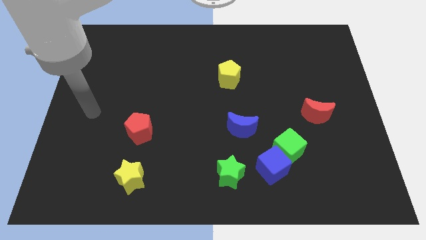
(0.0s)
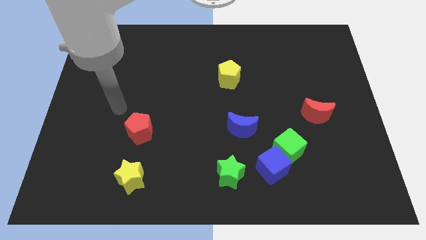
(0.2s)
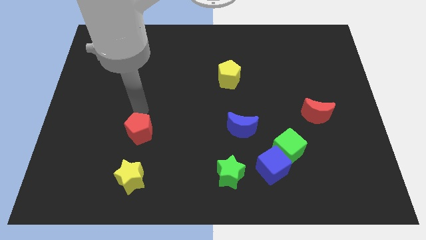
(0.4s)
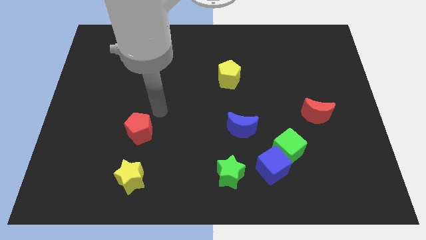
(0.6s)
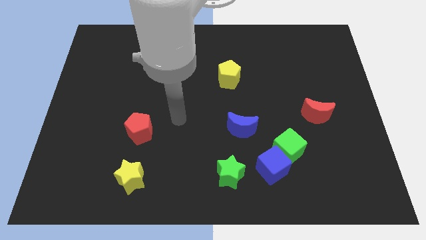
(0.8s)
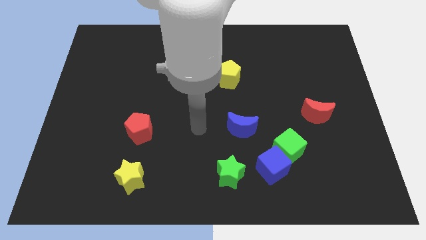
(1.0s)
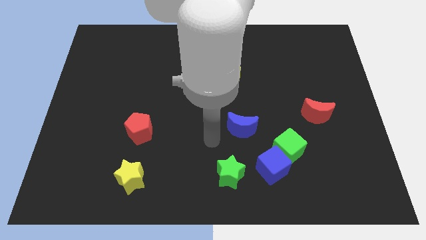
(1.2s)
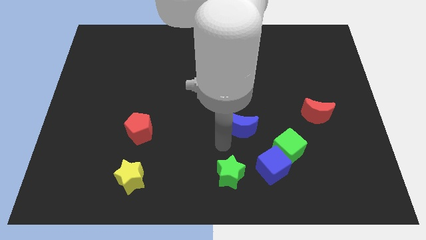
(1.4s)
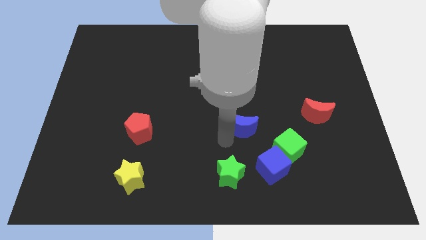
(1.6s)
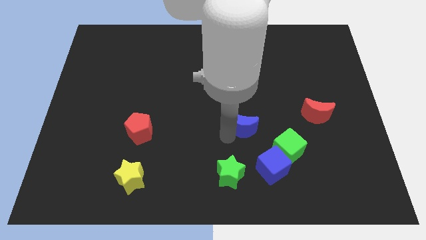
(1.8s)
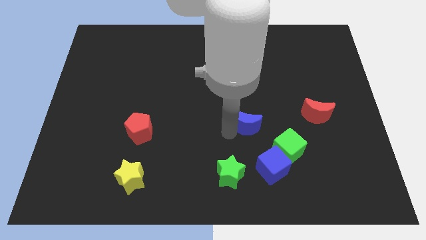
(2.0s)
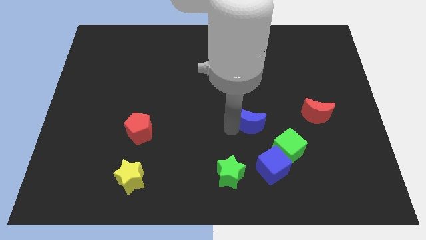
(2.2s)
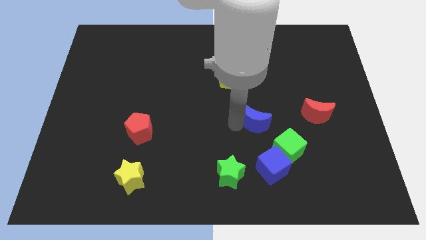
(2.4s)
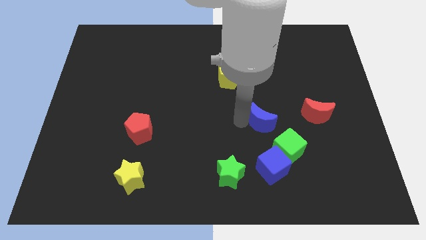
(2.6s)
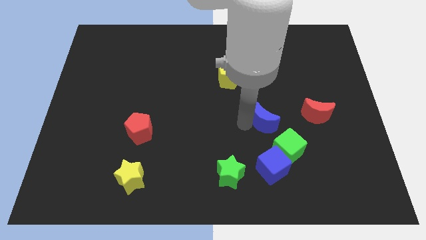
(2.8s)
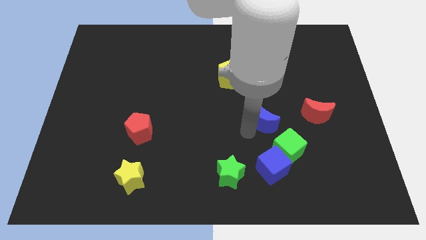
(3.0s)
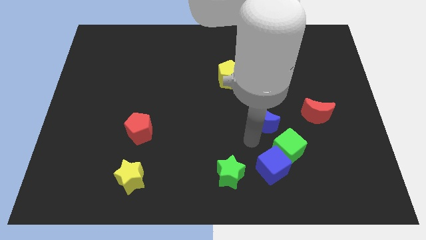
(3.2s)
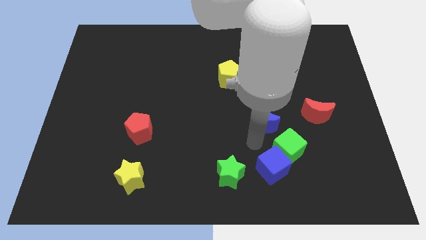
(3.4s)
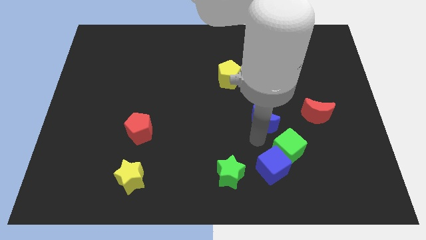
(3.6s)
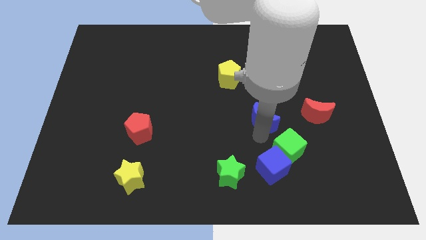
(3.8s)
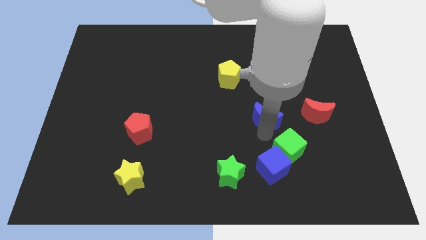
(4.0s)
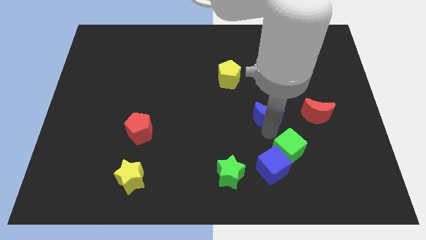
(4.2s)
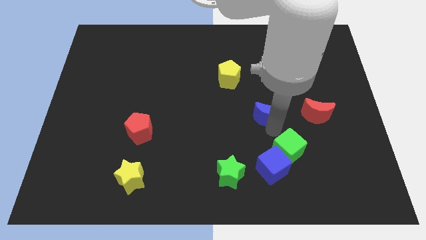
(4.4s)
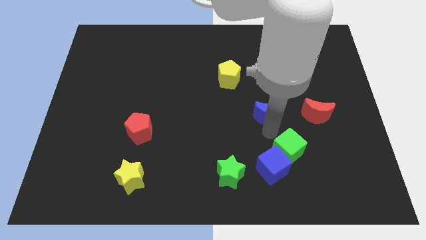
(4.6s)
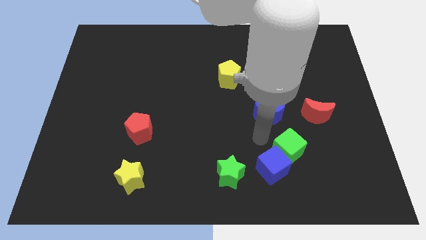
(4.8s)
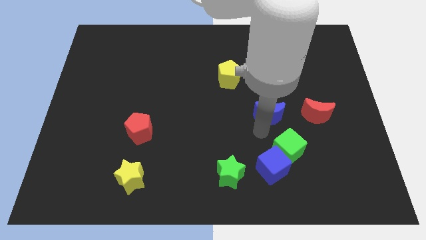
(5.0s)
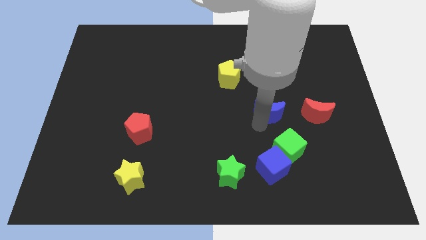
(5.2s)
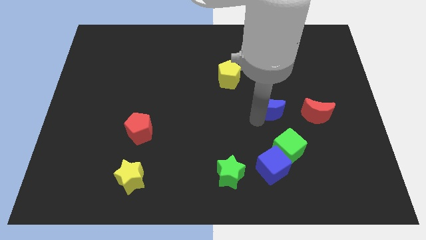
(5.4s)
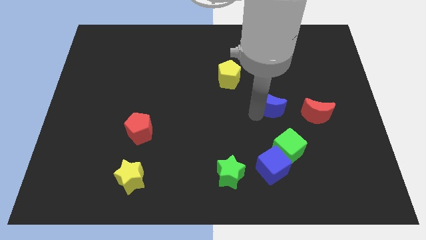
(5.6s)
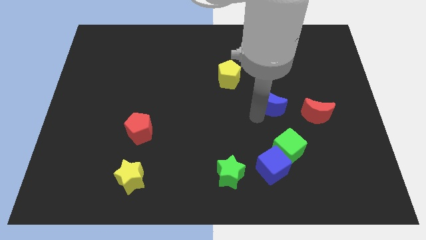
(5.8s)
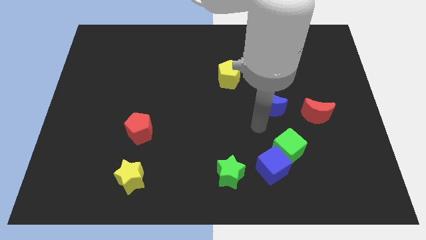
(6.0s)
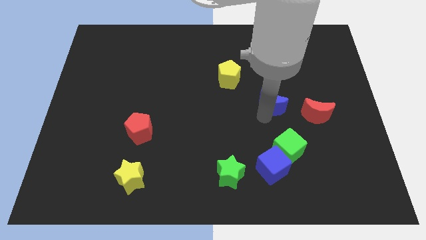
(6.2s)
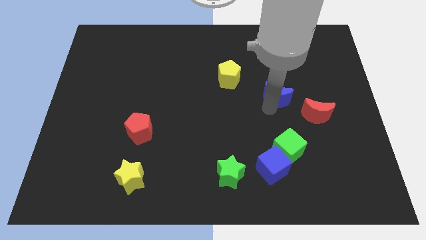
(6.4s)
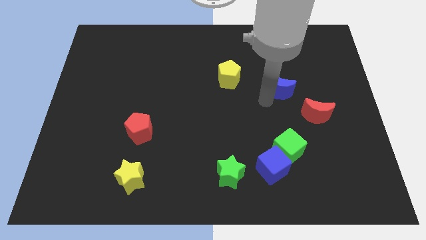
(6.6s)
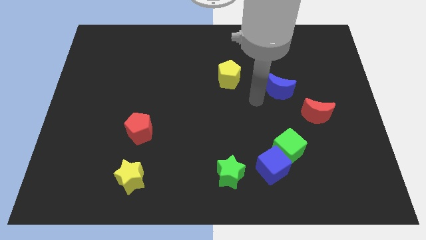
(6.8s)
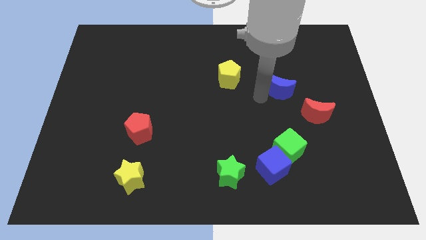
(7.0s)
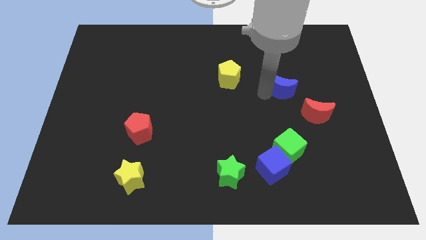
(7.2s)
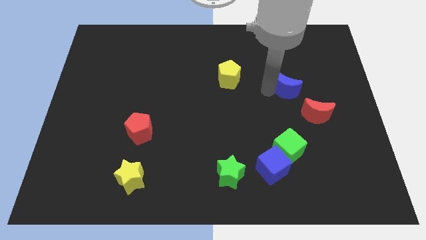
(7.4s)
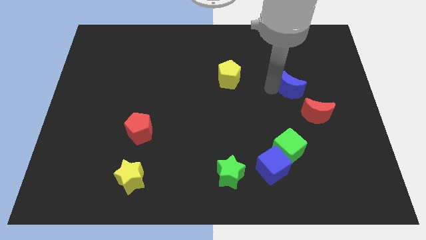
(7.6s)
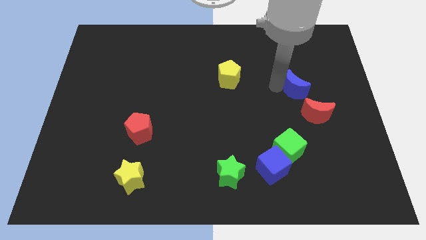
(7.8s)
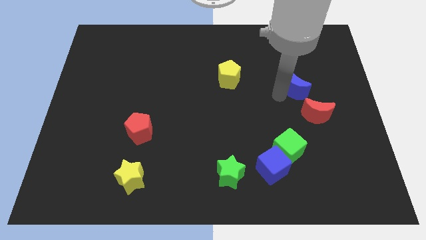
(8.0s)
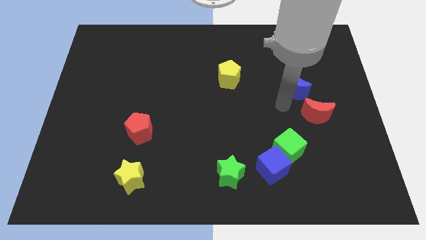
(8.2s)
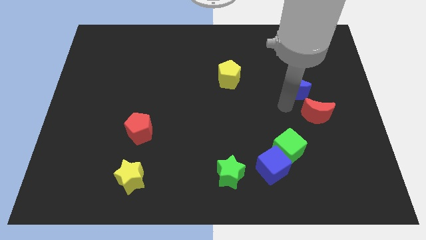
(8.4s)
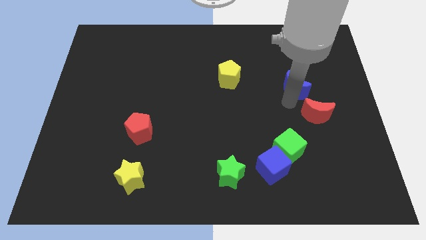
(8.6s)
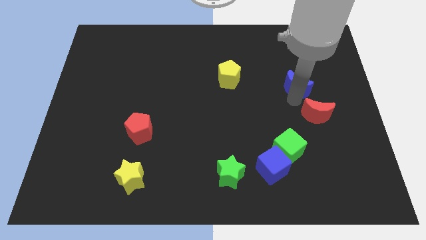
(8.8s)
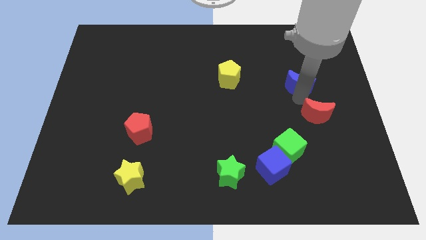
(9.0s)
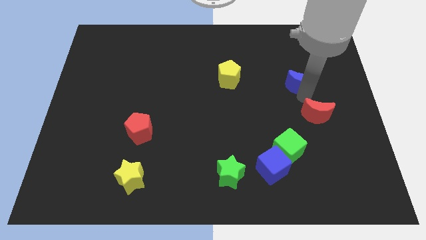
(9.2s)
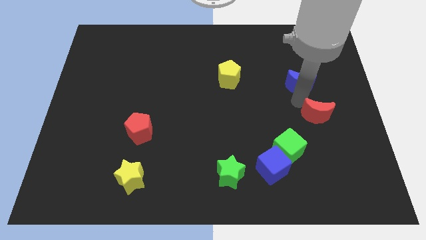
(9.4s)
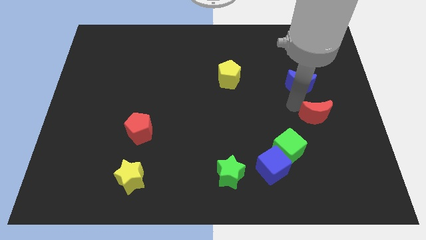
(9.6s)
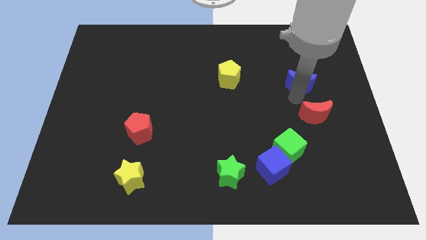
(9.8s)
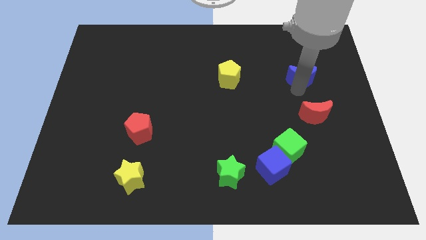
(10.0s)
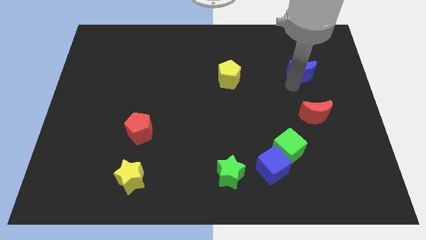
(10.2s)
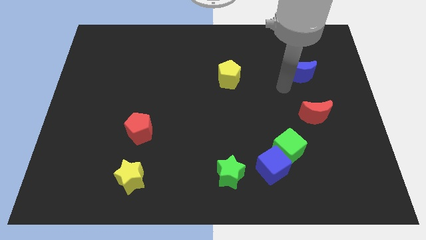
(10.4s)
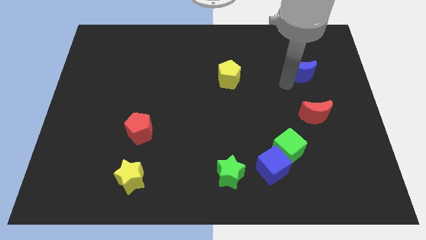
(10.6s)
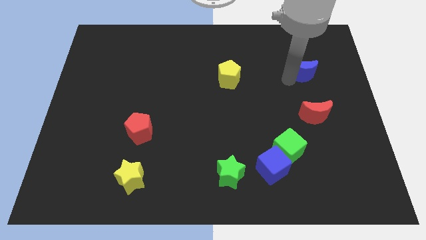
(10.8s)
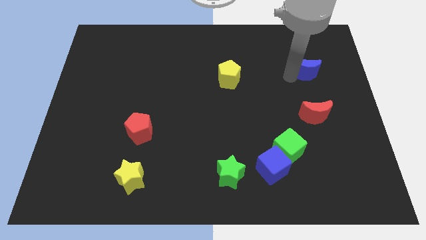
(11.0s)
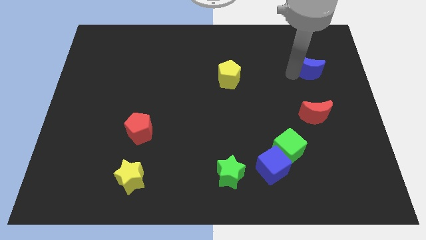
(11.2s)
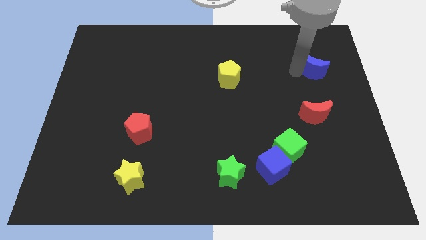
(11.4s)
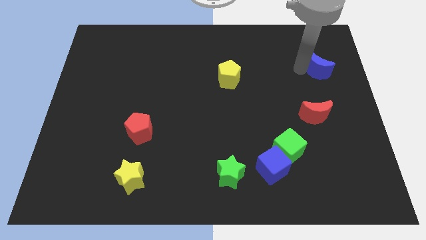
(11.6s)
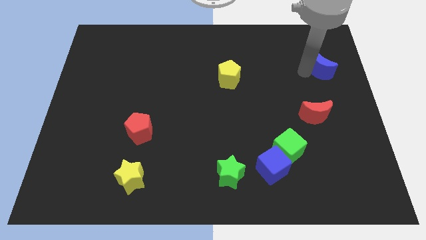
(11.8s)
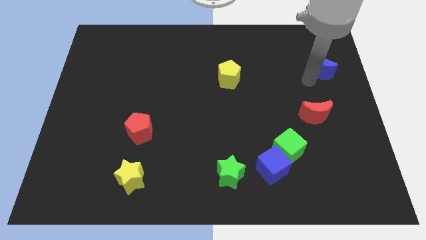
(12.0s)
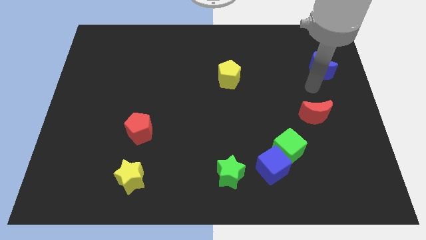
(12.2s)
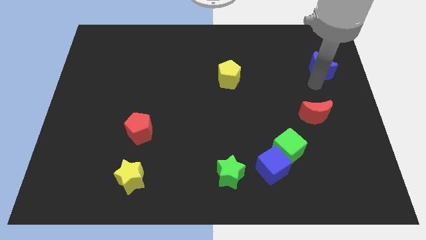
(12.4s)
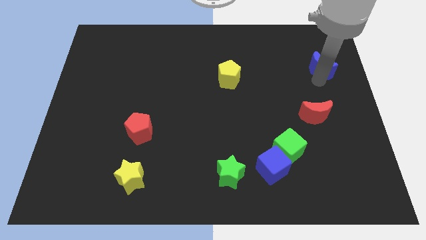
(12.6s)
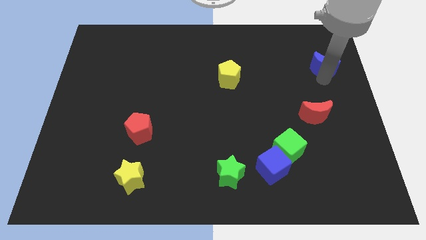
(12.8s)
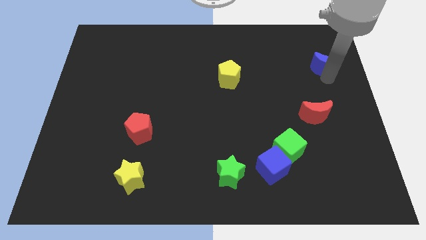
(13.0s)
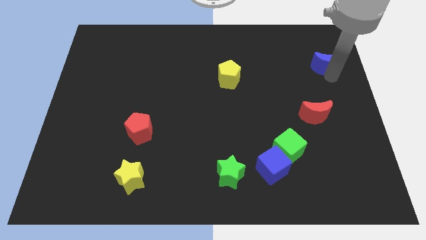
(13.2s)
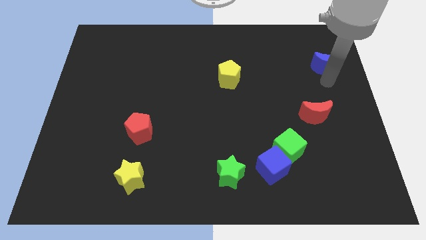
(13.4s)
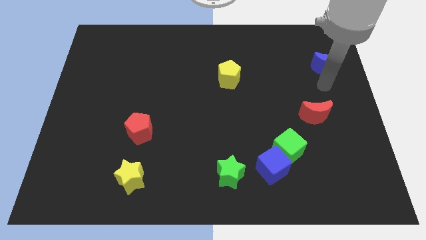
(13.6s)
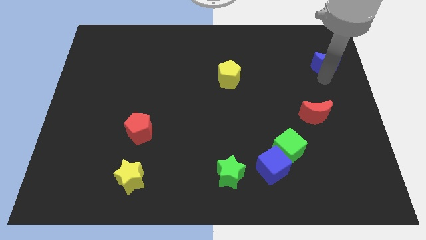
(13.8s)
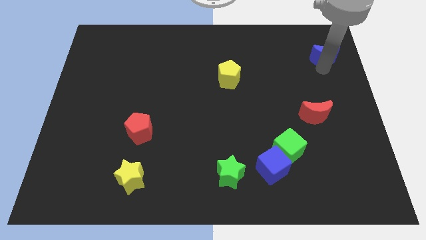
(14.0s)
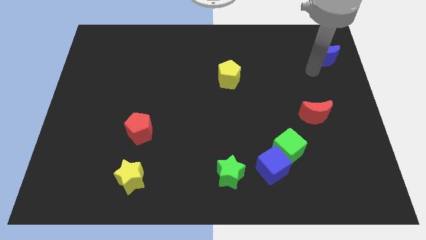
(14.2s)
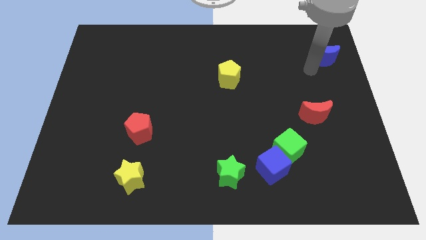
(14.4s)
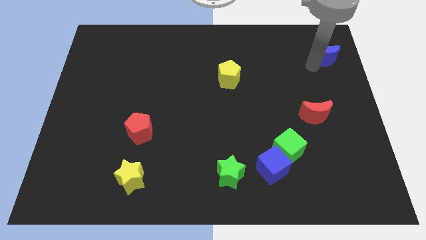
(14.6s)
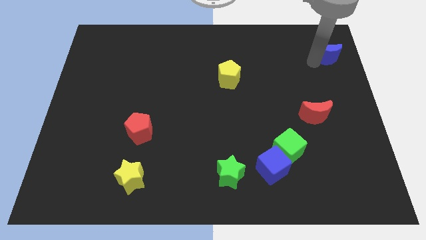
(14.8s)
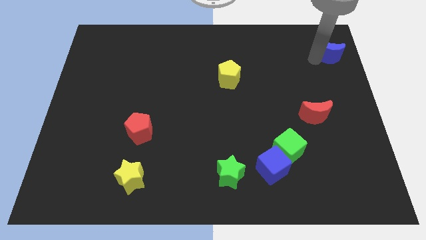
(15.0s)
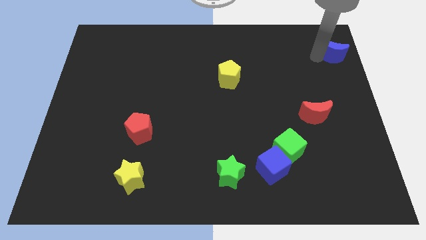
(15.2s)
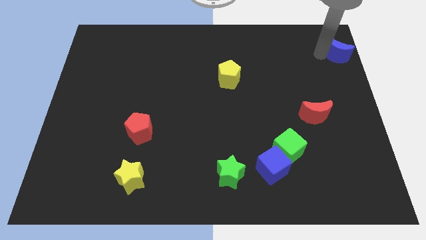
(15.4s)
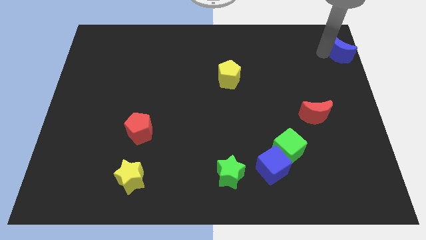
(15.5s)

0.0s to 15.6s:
push the blue moon to the top right corner
